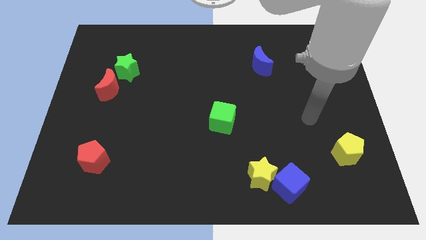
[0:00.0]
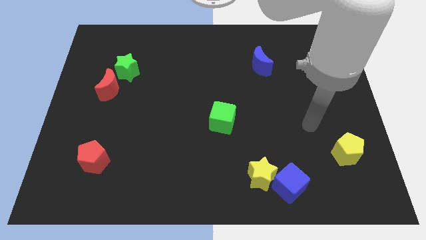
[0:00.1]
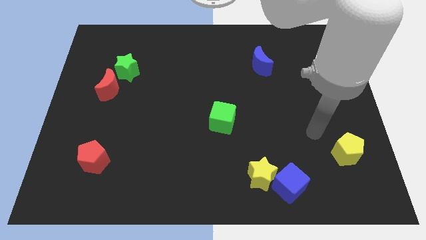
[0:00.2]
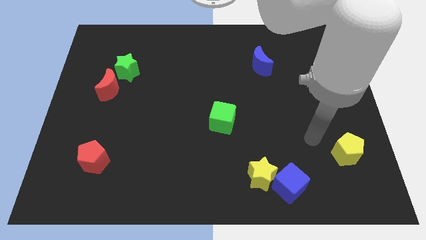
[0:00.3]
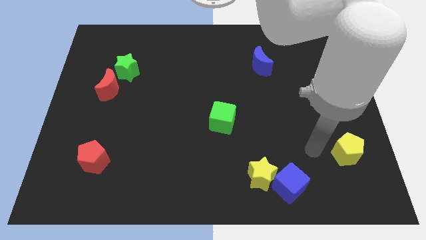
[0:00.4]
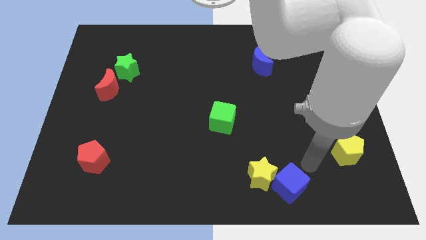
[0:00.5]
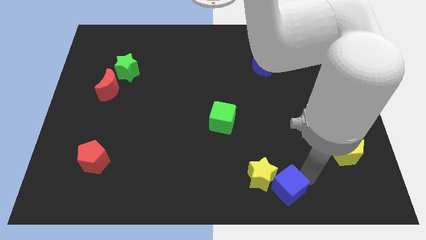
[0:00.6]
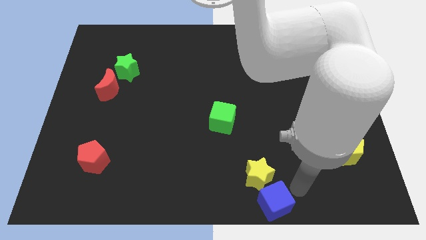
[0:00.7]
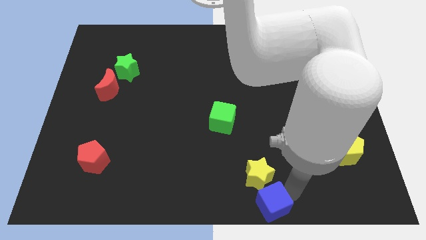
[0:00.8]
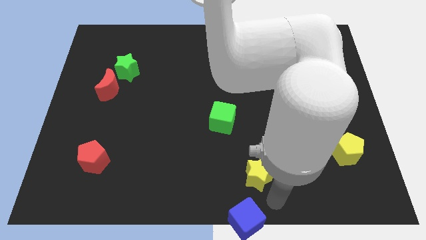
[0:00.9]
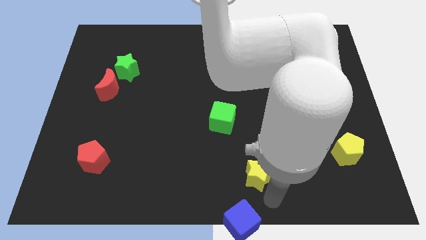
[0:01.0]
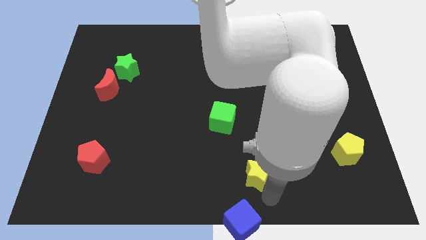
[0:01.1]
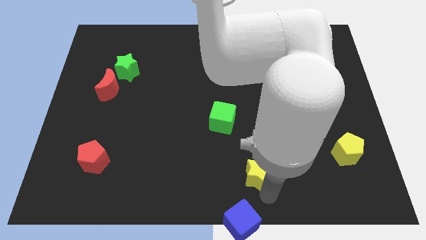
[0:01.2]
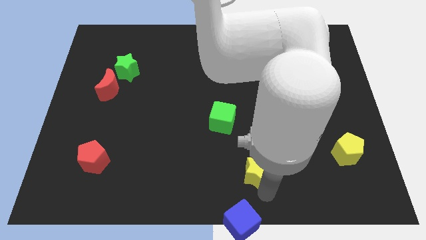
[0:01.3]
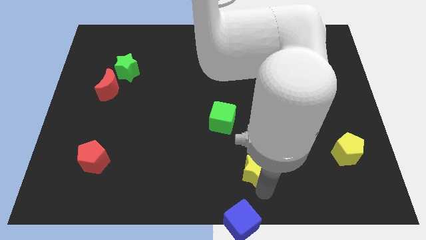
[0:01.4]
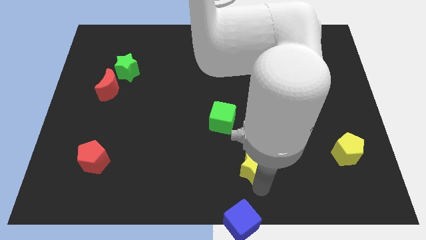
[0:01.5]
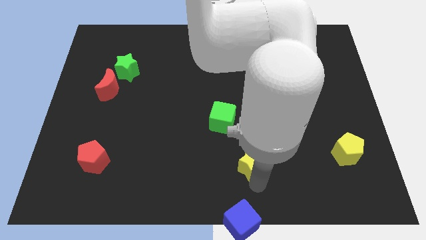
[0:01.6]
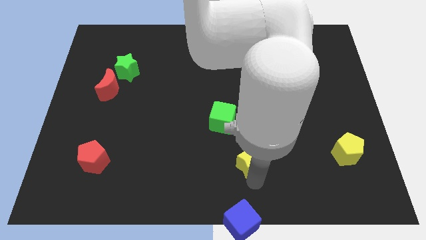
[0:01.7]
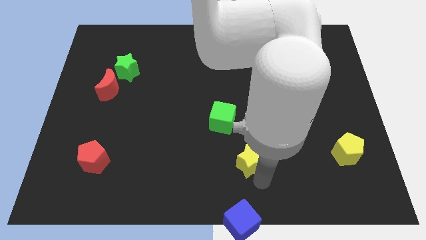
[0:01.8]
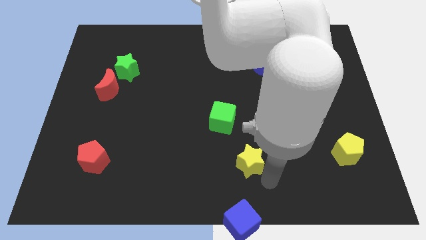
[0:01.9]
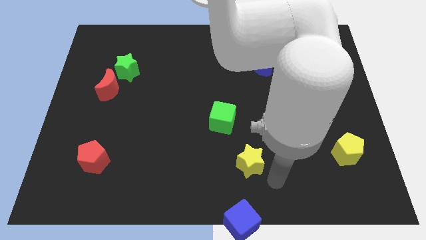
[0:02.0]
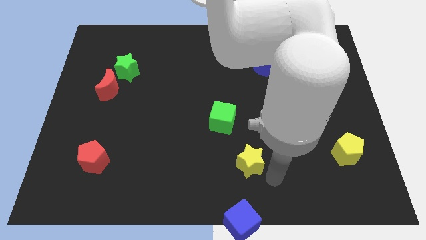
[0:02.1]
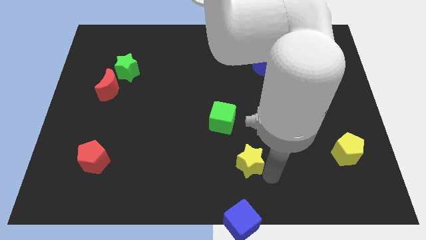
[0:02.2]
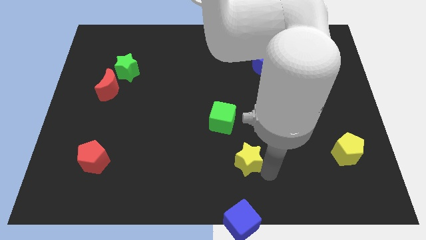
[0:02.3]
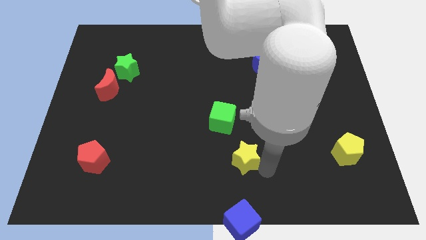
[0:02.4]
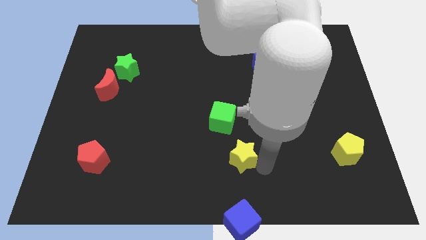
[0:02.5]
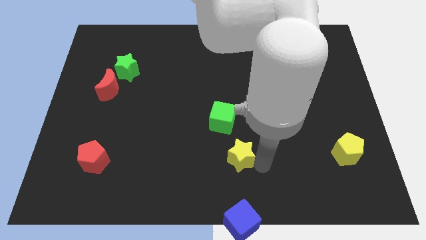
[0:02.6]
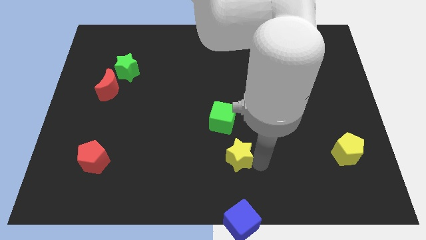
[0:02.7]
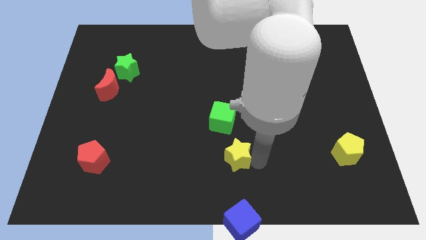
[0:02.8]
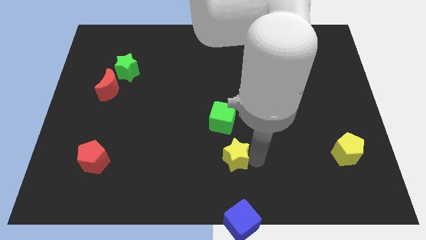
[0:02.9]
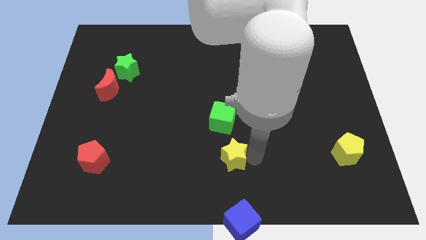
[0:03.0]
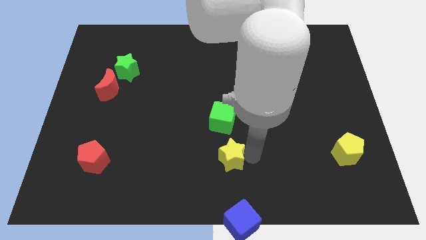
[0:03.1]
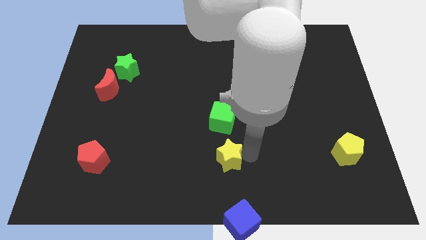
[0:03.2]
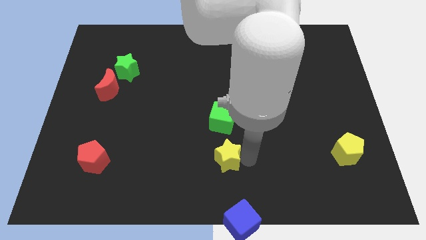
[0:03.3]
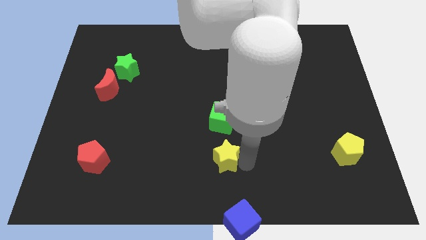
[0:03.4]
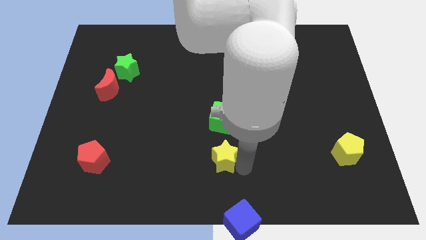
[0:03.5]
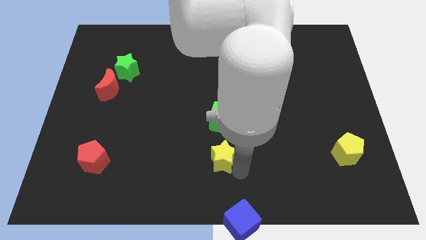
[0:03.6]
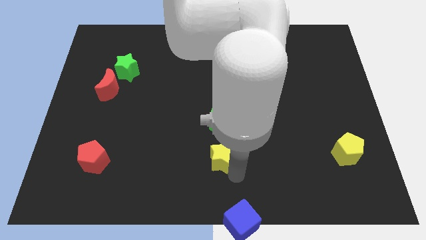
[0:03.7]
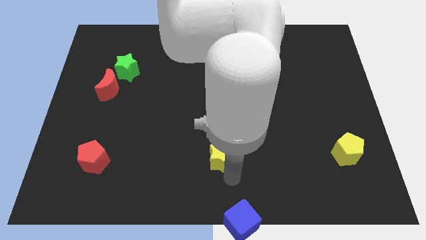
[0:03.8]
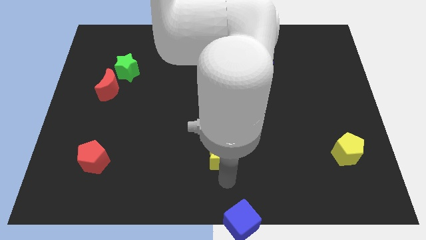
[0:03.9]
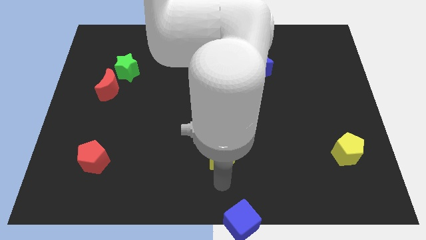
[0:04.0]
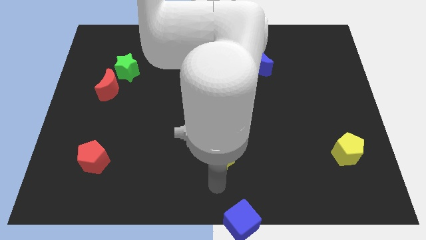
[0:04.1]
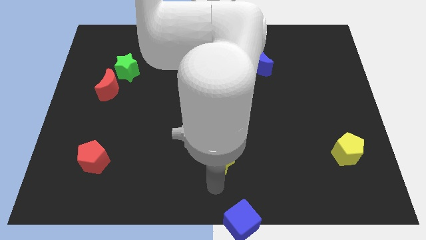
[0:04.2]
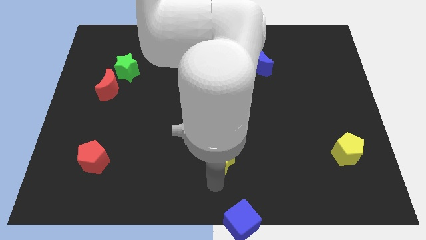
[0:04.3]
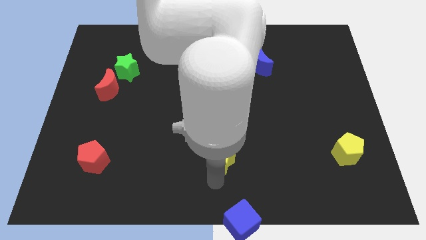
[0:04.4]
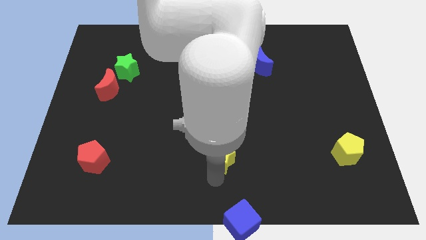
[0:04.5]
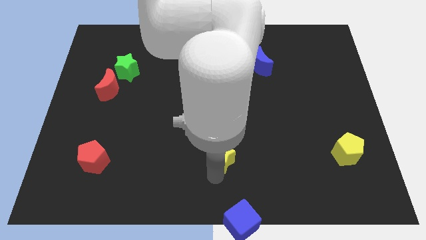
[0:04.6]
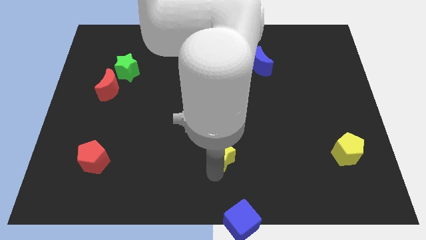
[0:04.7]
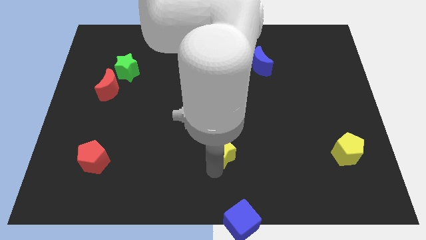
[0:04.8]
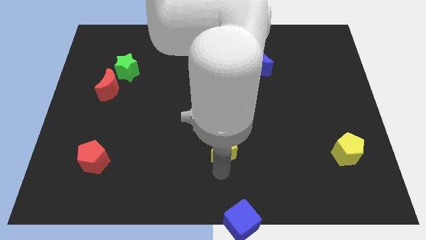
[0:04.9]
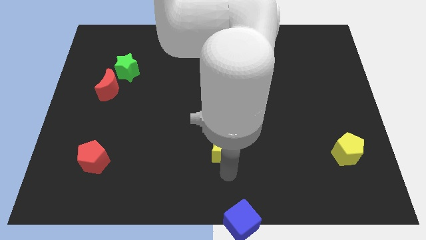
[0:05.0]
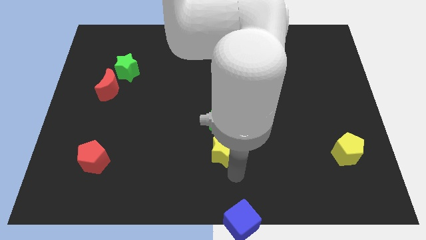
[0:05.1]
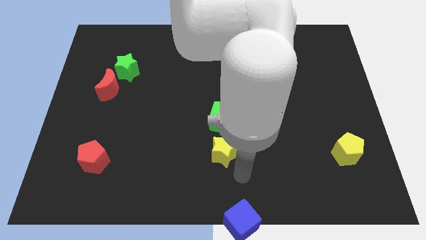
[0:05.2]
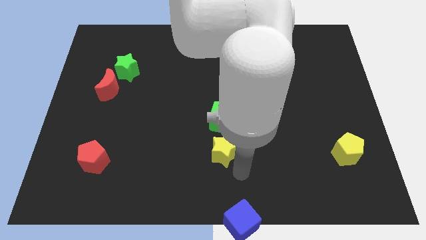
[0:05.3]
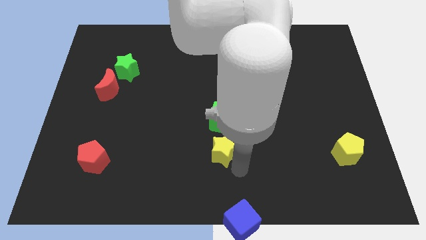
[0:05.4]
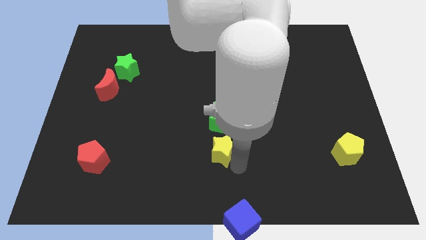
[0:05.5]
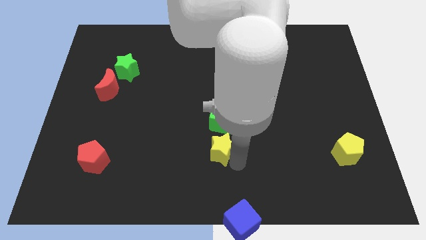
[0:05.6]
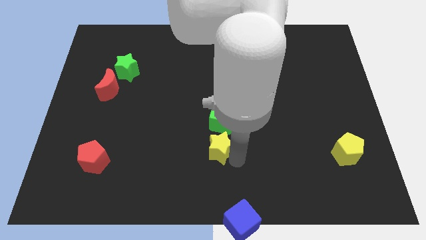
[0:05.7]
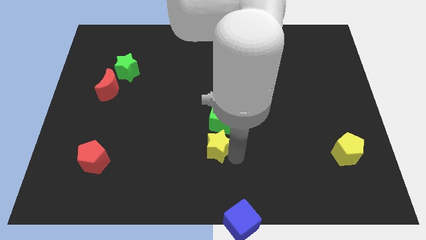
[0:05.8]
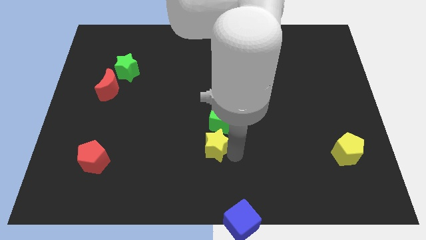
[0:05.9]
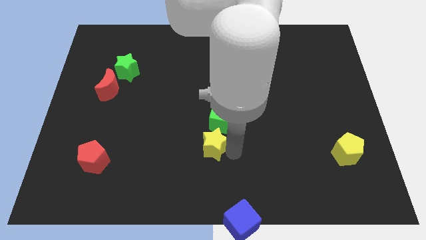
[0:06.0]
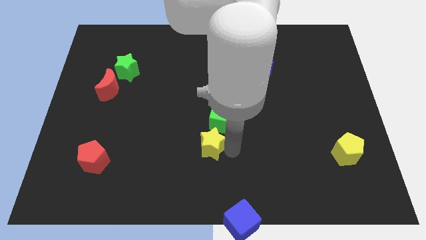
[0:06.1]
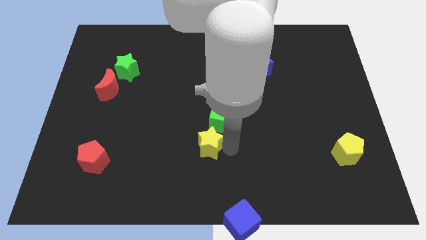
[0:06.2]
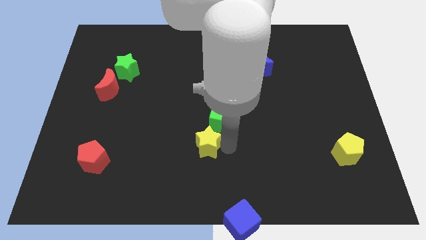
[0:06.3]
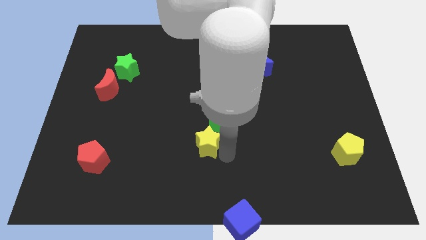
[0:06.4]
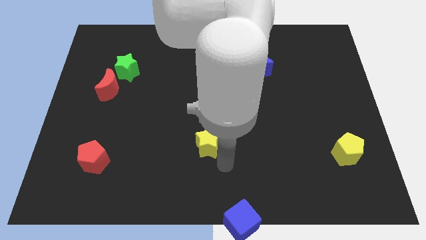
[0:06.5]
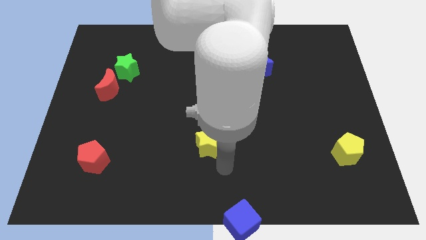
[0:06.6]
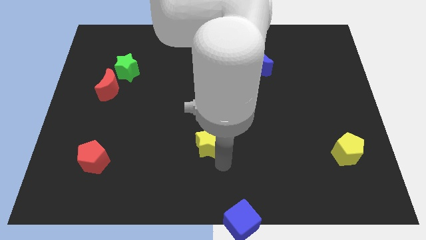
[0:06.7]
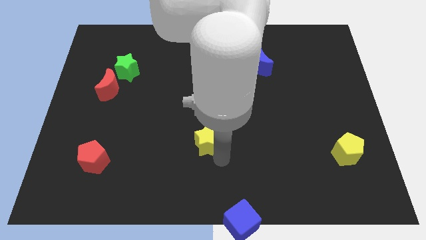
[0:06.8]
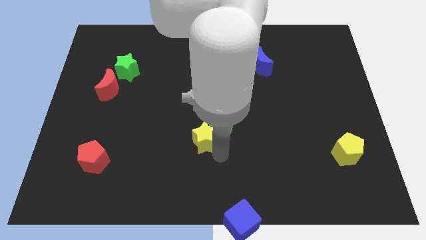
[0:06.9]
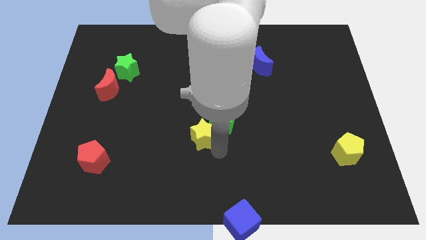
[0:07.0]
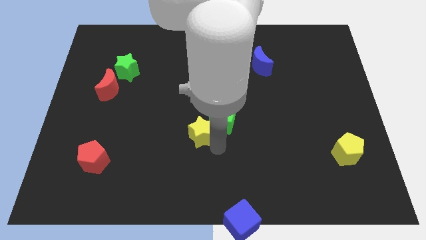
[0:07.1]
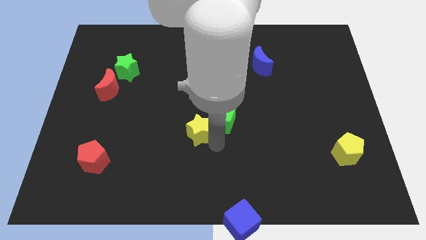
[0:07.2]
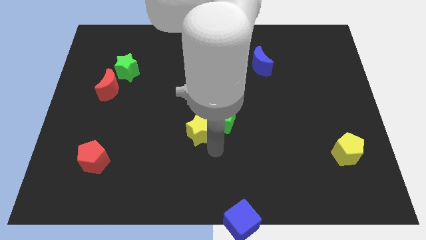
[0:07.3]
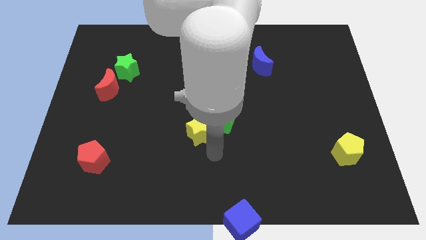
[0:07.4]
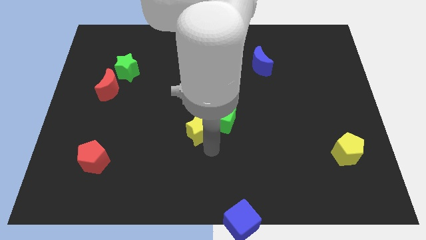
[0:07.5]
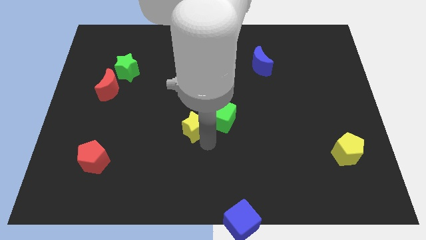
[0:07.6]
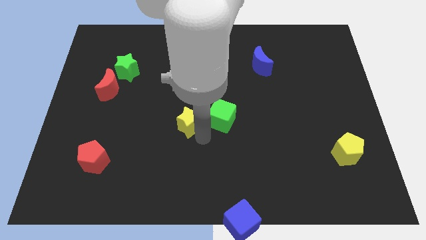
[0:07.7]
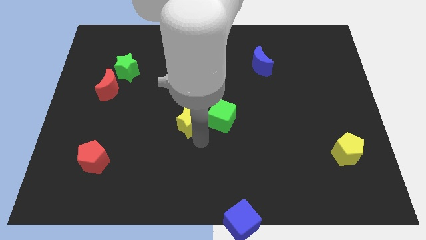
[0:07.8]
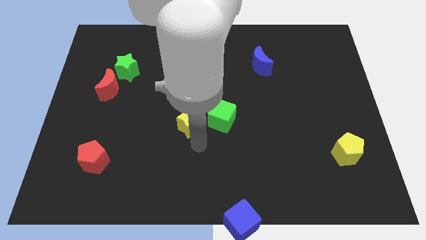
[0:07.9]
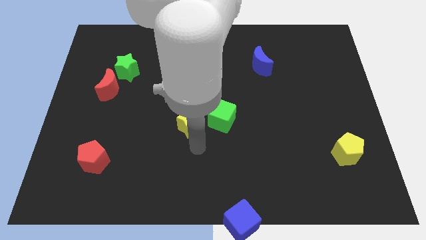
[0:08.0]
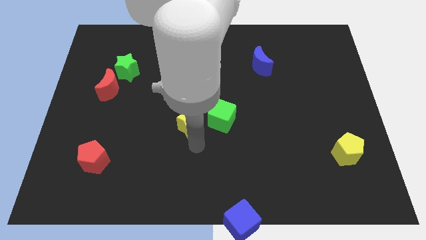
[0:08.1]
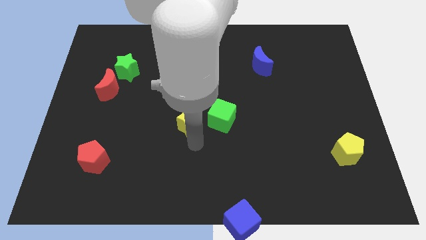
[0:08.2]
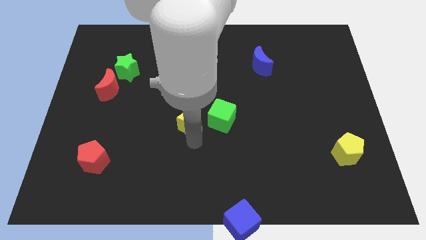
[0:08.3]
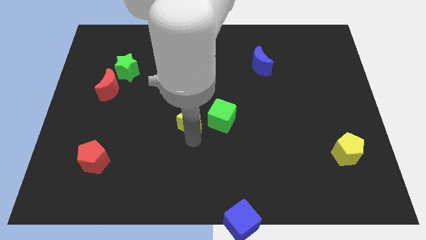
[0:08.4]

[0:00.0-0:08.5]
slide the yellow star up and then left
